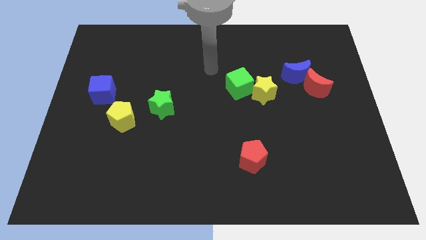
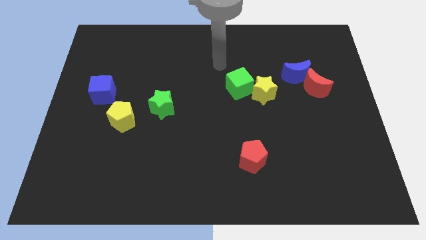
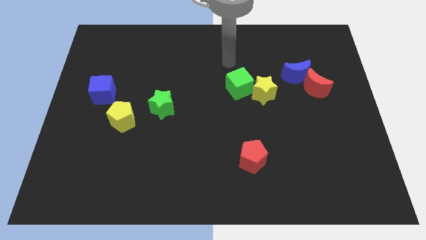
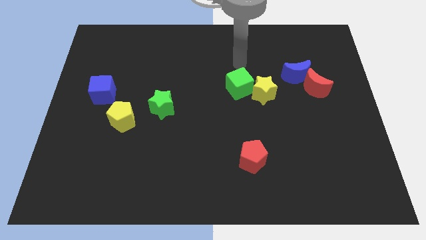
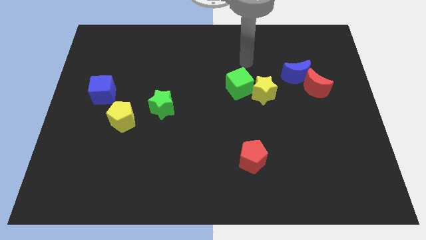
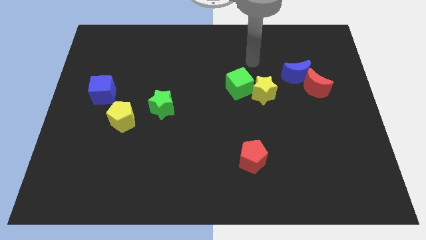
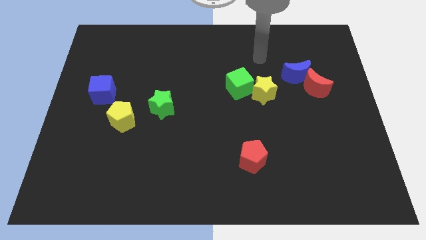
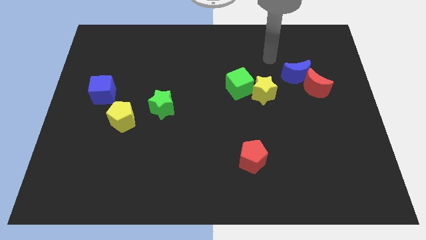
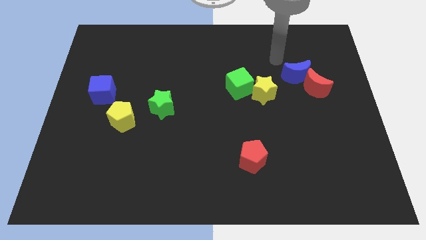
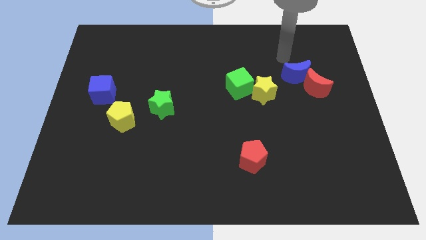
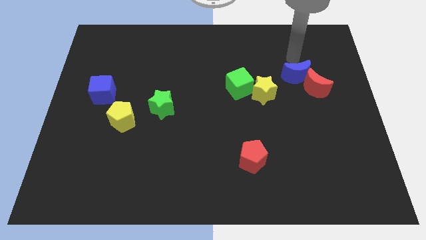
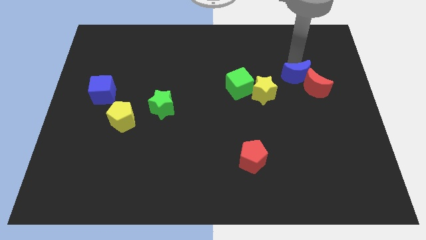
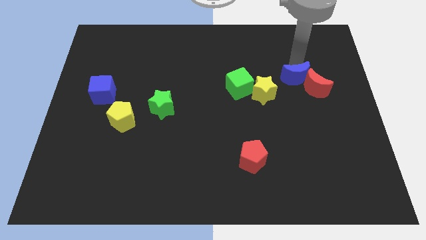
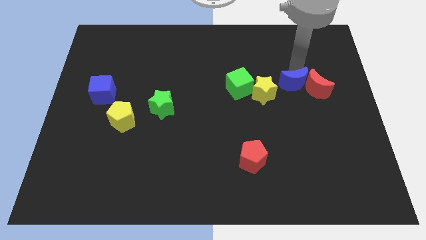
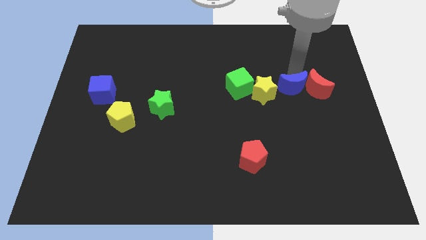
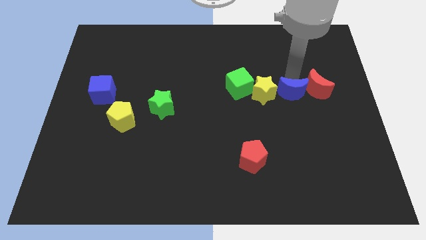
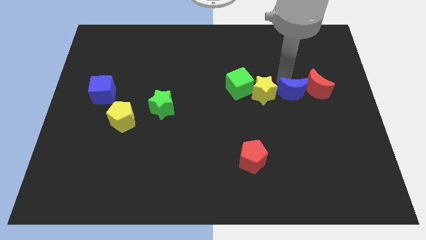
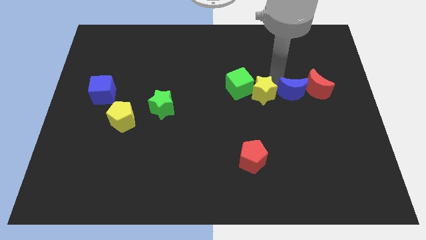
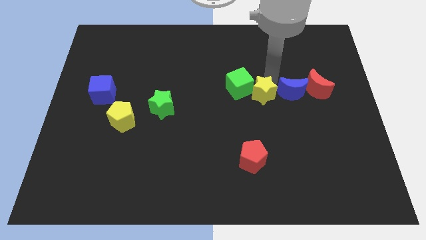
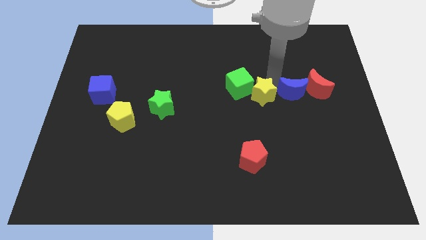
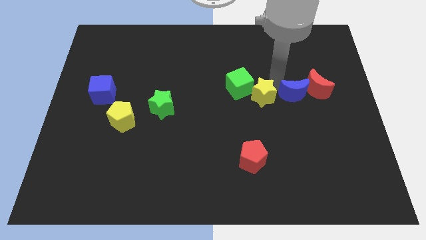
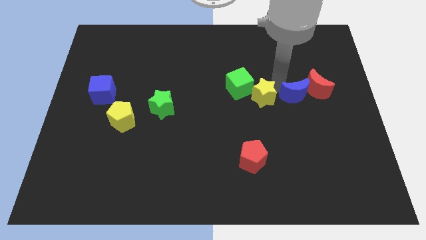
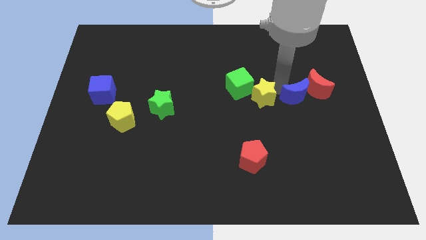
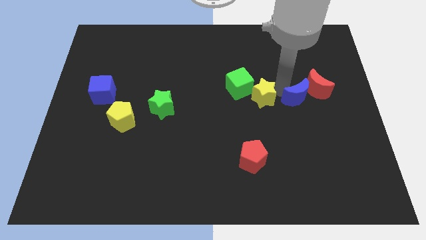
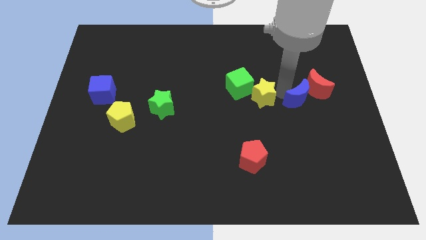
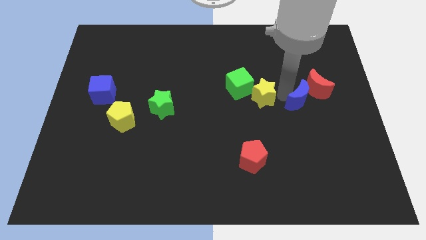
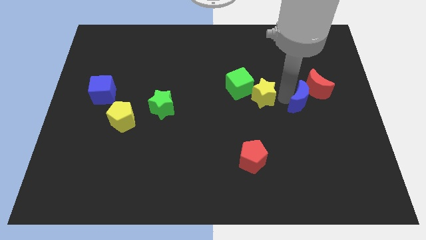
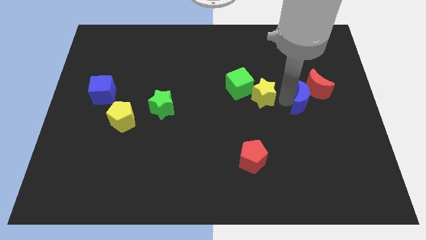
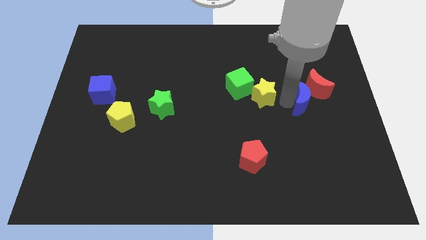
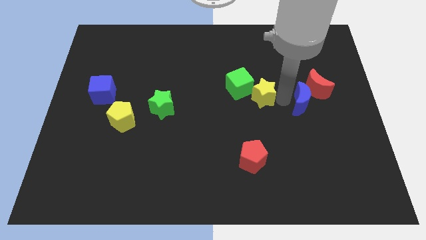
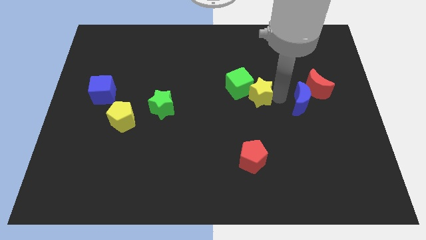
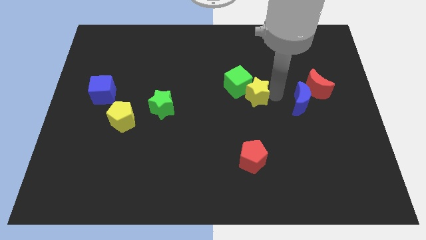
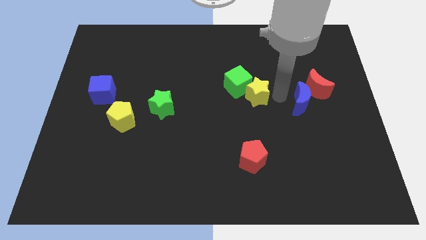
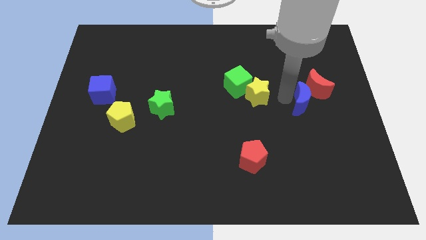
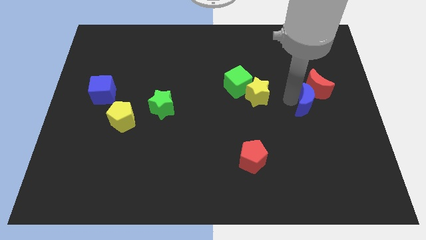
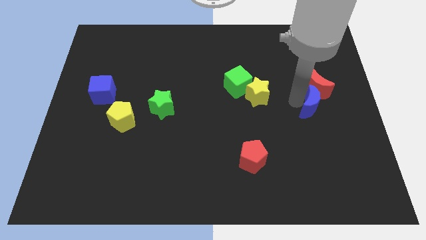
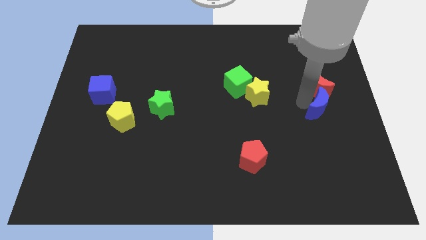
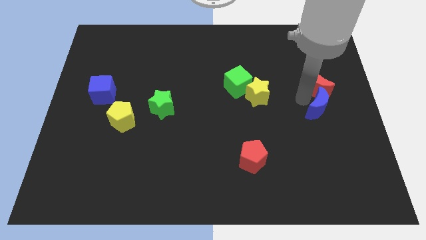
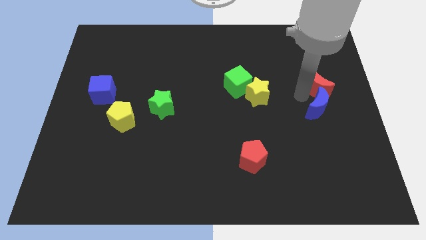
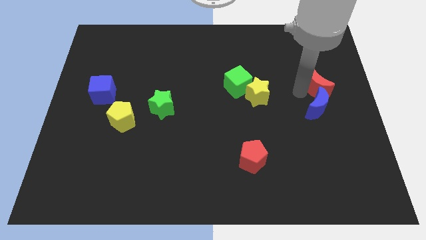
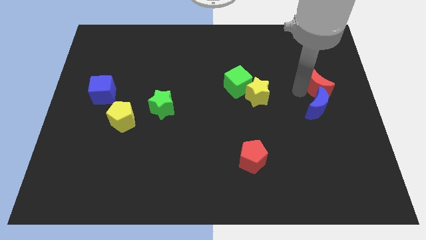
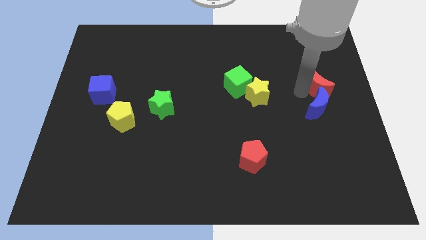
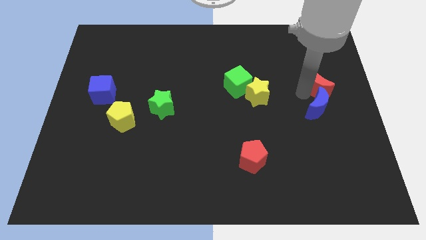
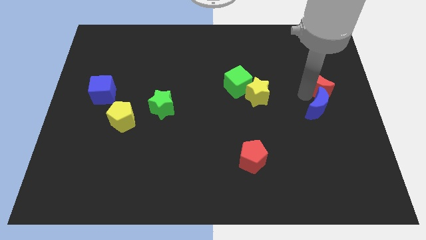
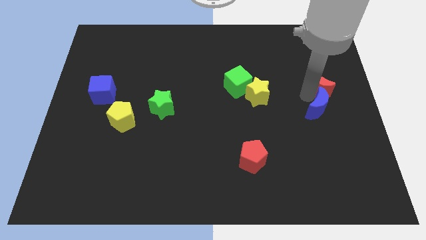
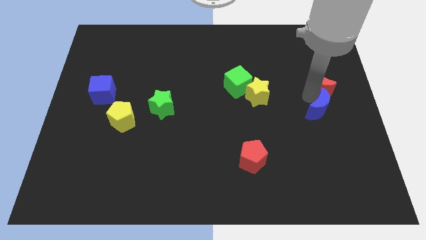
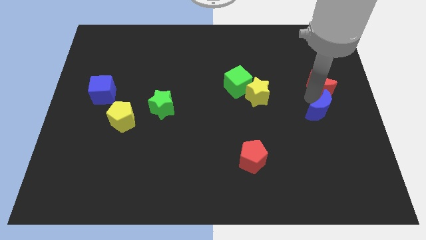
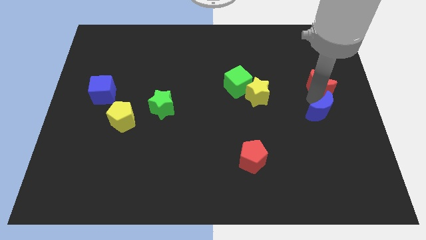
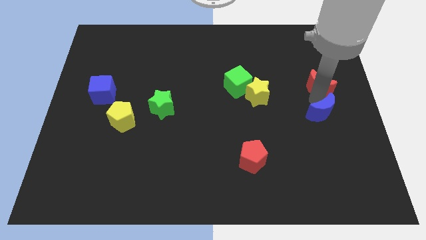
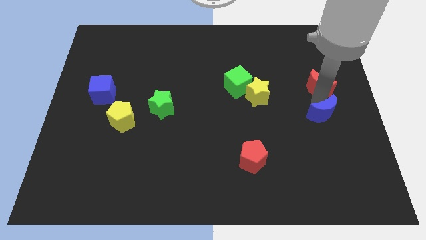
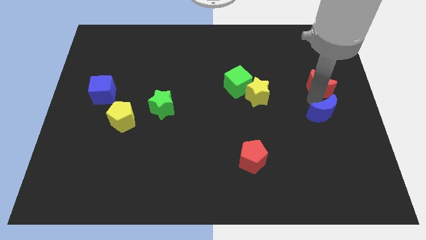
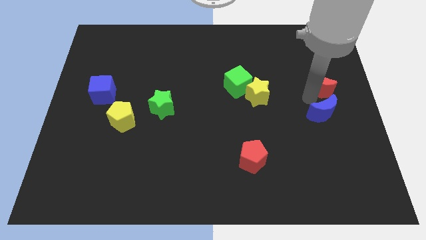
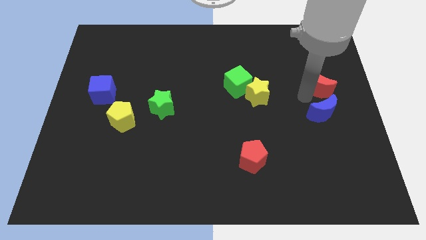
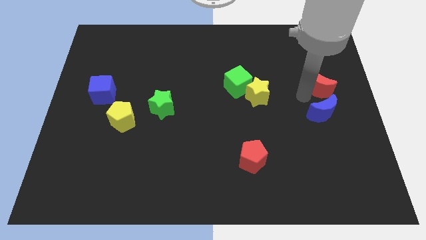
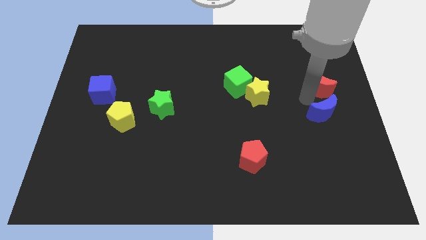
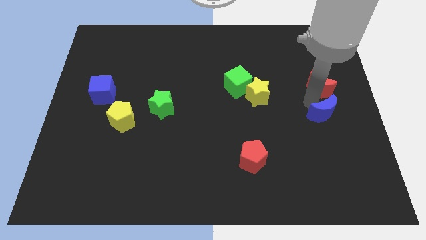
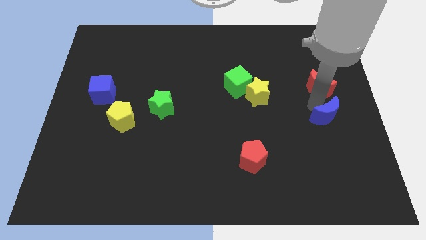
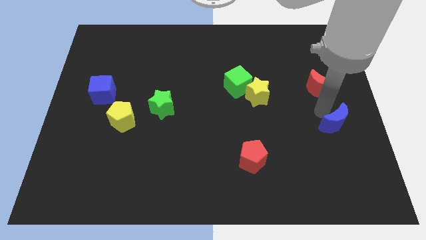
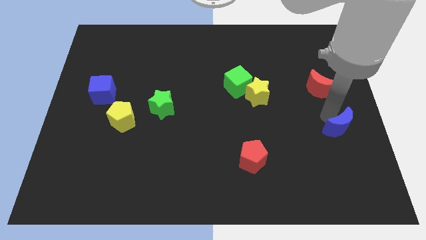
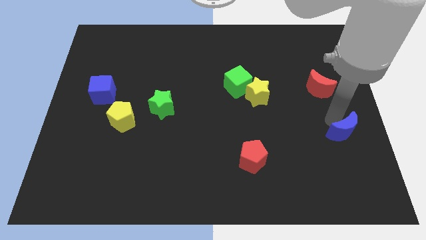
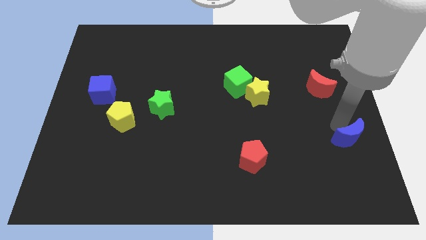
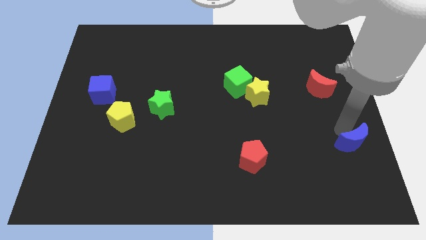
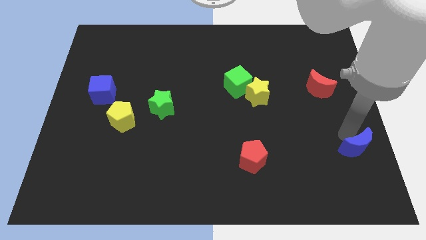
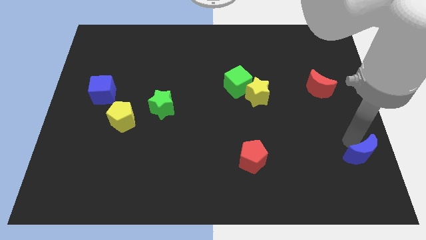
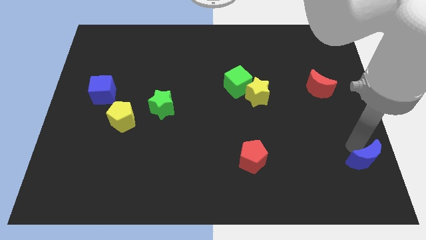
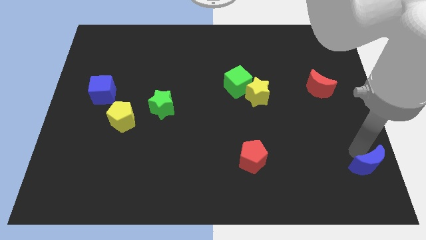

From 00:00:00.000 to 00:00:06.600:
put the blue moon to the bottom right corner
